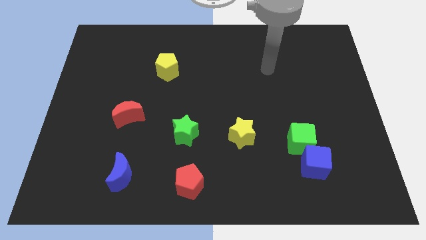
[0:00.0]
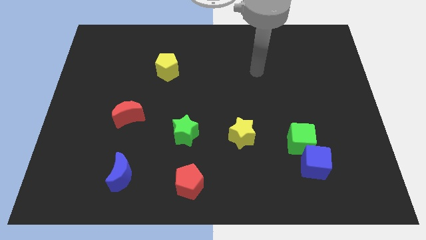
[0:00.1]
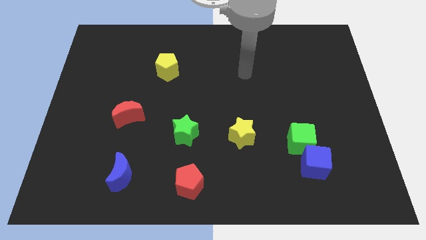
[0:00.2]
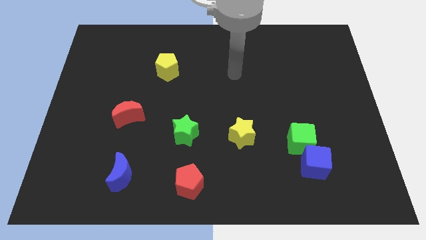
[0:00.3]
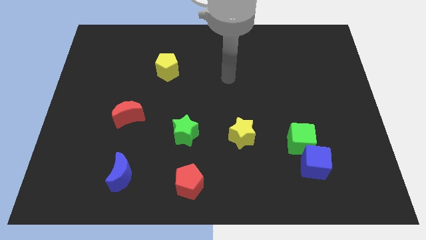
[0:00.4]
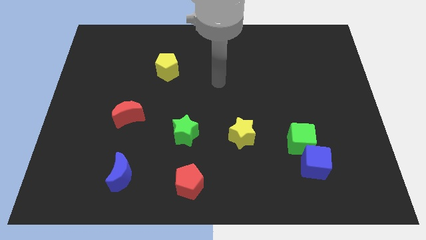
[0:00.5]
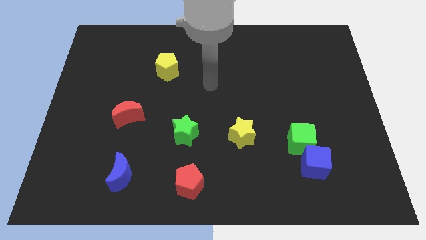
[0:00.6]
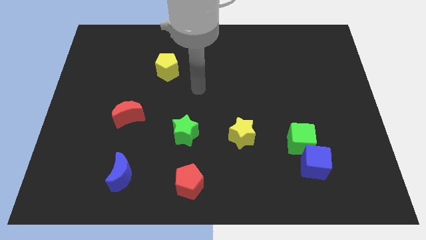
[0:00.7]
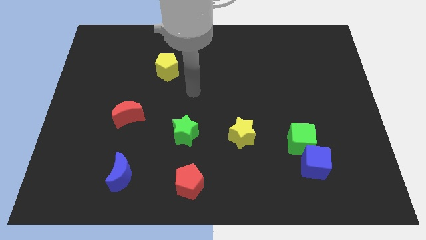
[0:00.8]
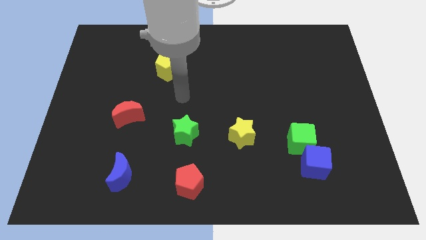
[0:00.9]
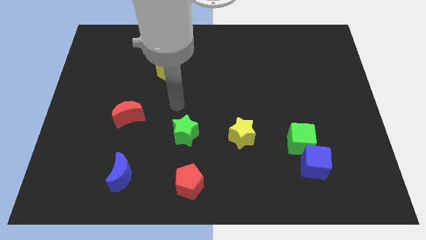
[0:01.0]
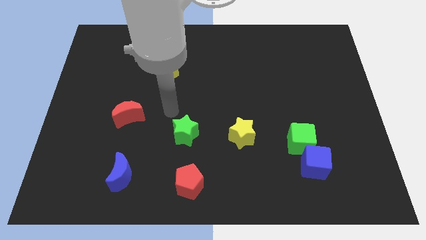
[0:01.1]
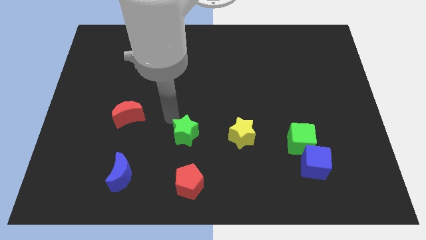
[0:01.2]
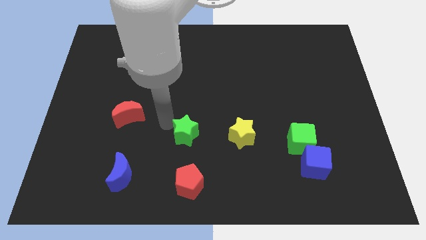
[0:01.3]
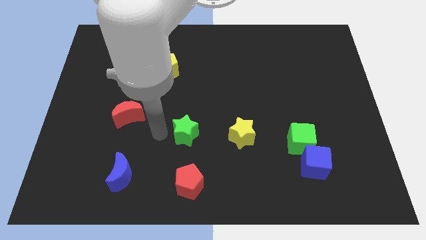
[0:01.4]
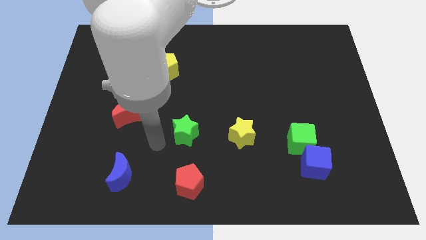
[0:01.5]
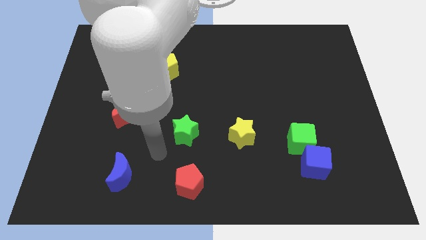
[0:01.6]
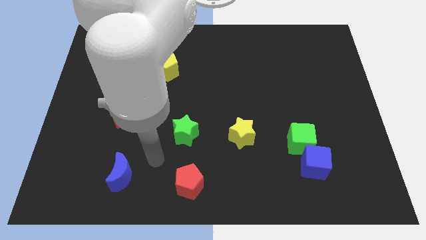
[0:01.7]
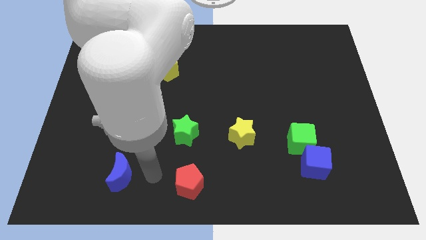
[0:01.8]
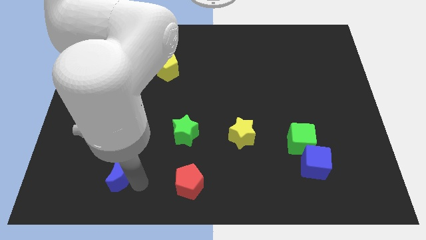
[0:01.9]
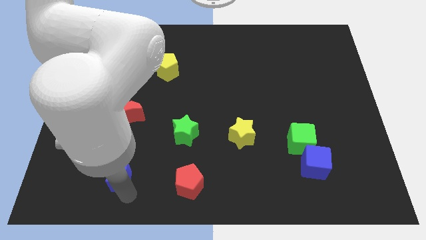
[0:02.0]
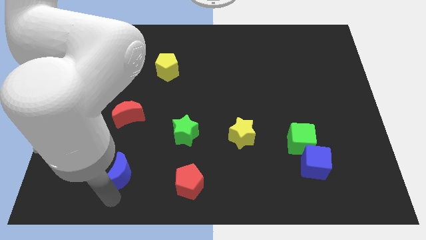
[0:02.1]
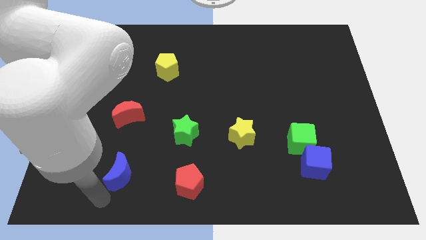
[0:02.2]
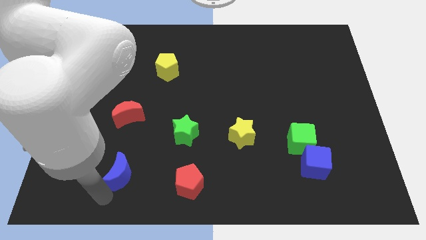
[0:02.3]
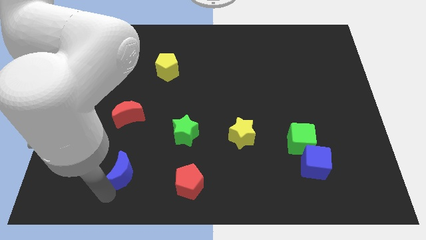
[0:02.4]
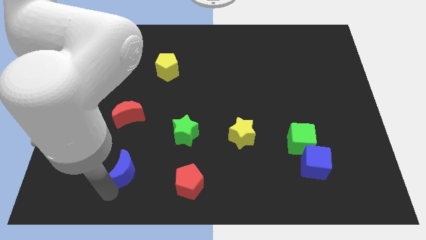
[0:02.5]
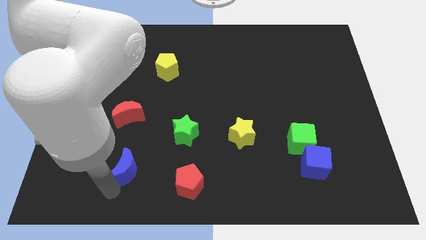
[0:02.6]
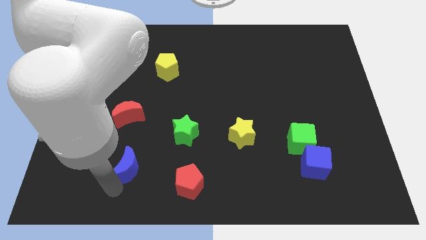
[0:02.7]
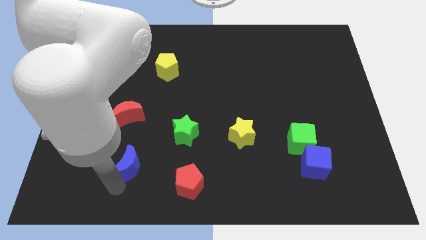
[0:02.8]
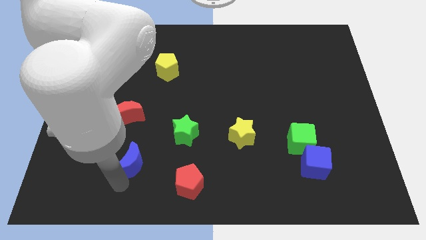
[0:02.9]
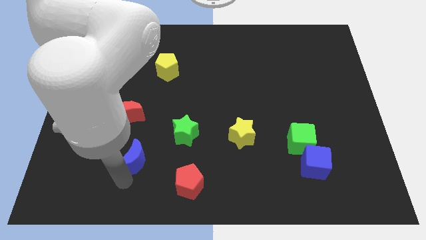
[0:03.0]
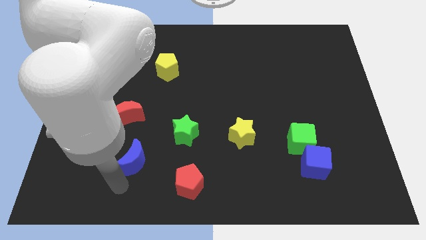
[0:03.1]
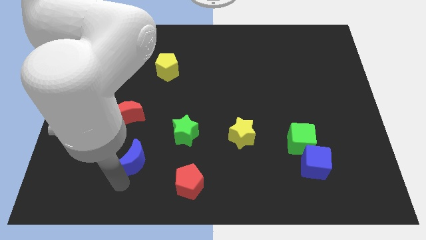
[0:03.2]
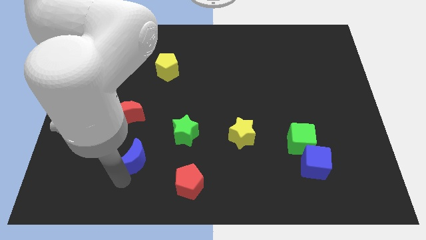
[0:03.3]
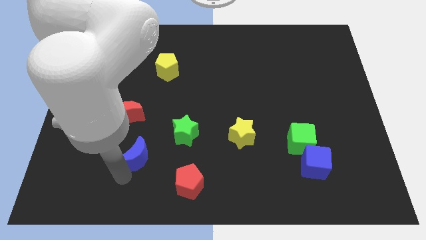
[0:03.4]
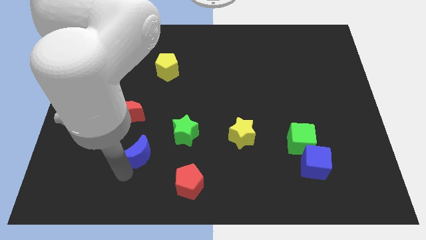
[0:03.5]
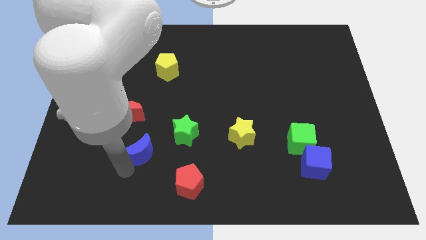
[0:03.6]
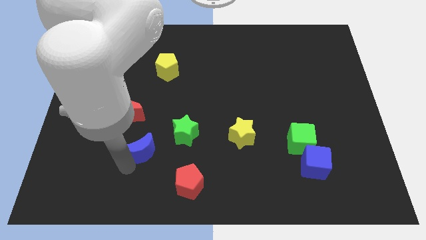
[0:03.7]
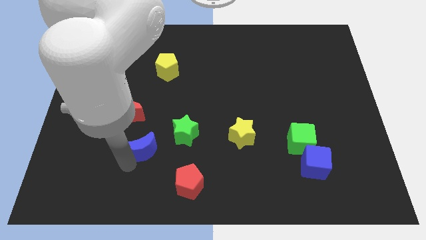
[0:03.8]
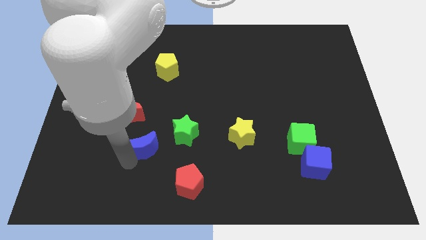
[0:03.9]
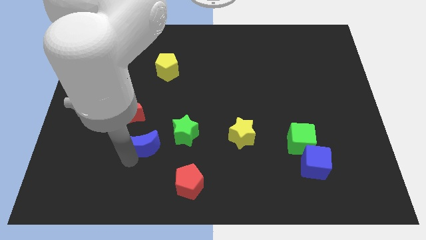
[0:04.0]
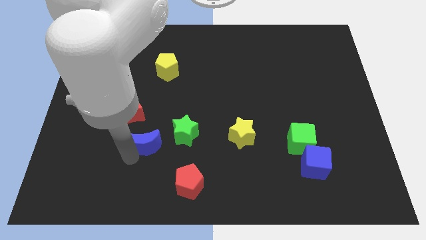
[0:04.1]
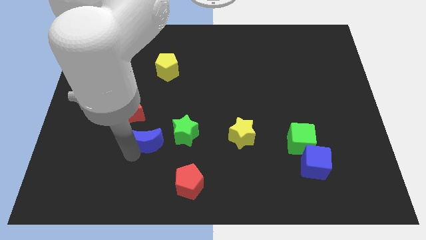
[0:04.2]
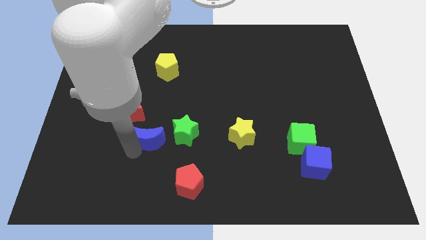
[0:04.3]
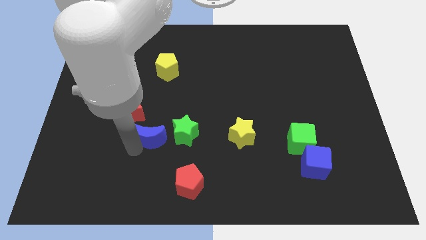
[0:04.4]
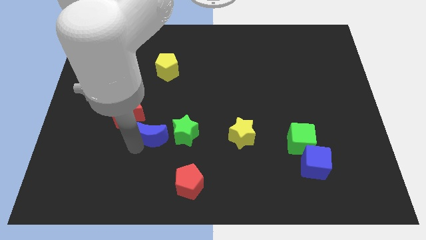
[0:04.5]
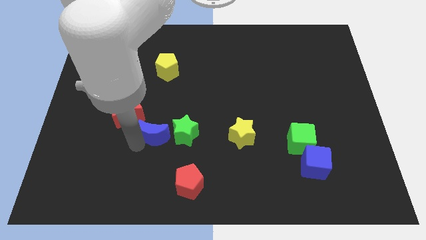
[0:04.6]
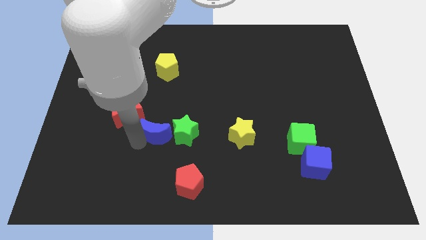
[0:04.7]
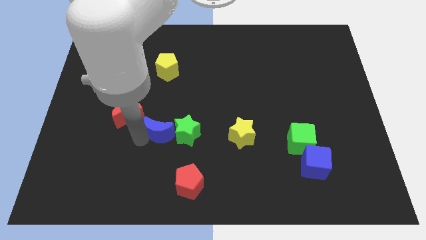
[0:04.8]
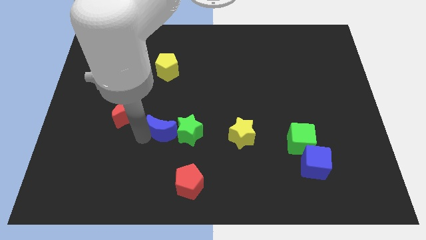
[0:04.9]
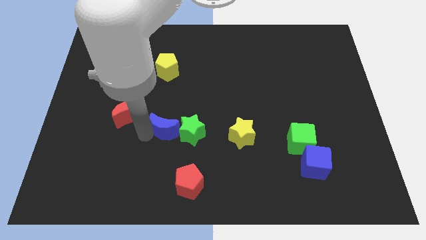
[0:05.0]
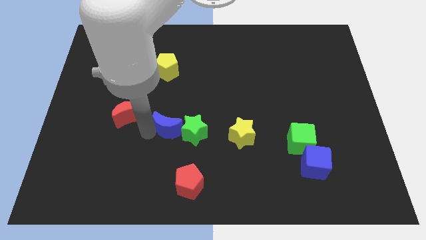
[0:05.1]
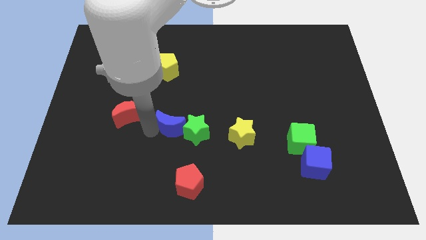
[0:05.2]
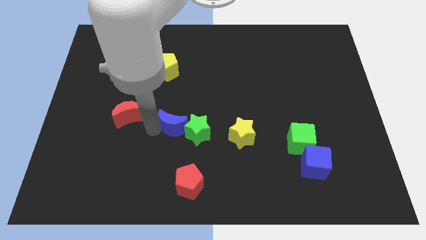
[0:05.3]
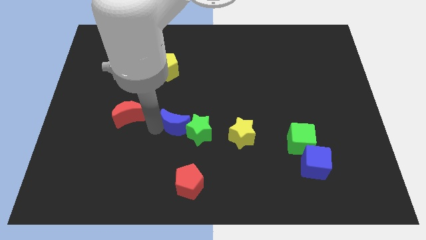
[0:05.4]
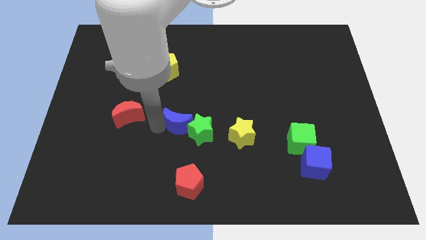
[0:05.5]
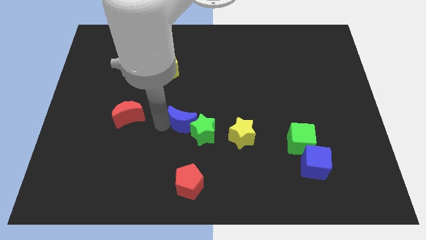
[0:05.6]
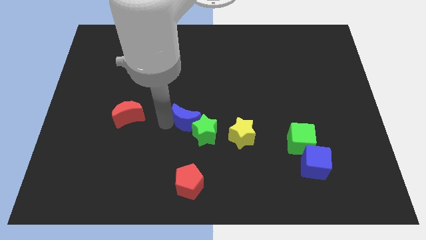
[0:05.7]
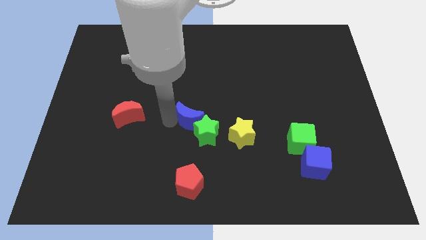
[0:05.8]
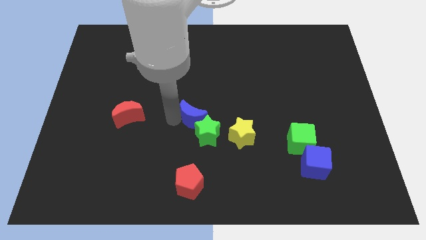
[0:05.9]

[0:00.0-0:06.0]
move the blue moon diagonally upwards and right

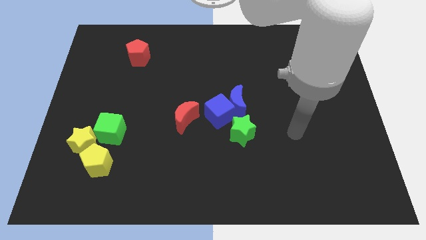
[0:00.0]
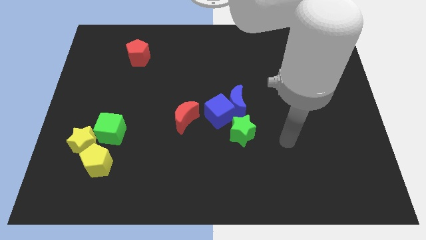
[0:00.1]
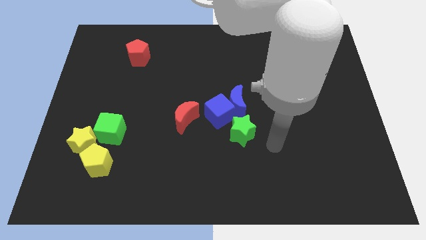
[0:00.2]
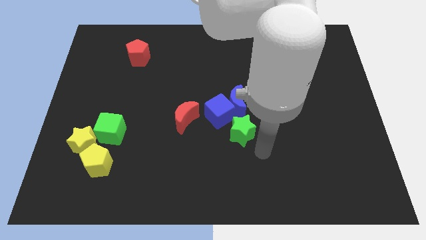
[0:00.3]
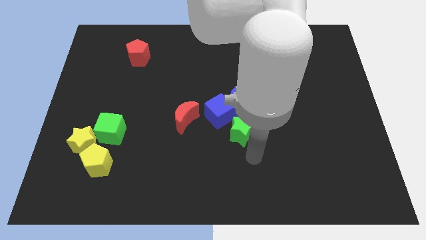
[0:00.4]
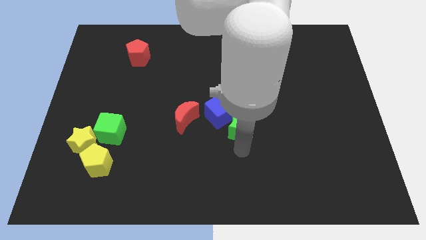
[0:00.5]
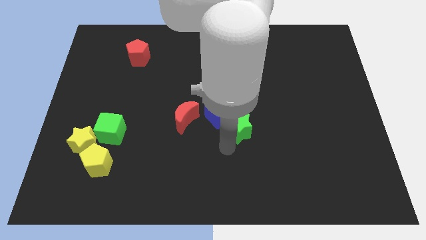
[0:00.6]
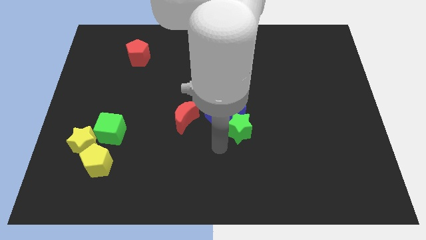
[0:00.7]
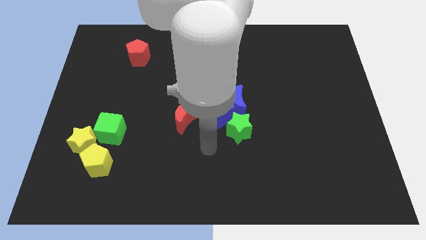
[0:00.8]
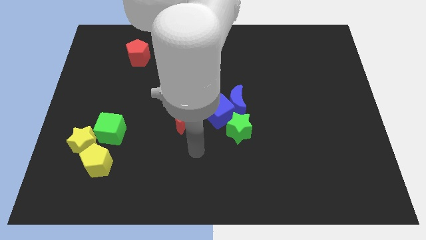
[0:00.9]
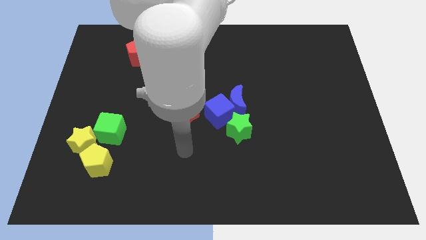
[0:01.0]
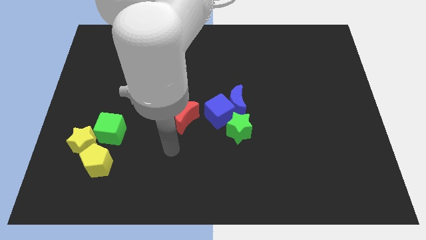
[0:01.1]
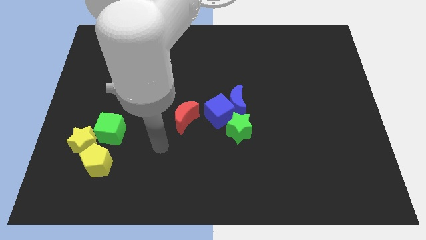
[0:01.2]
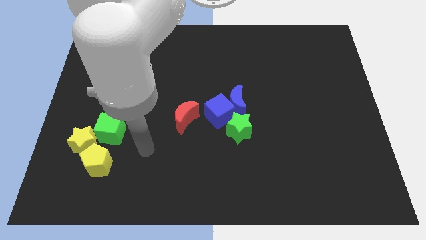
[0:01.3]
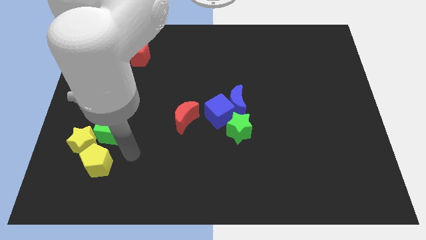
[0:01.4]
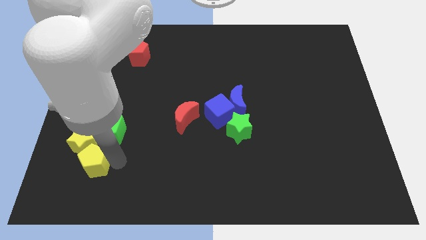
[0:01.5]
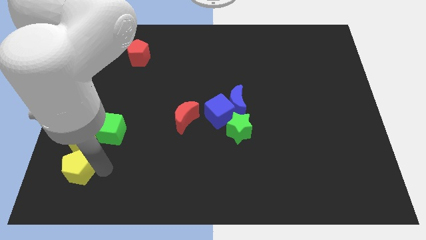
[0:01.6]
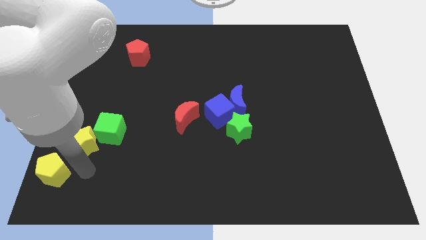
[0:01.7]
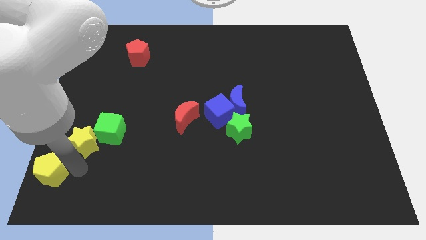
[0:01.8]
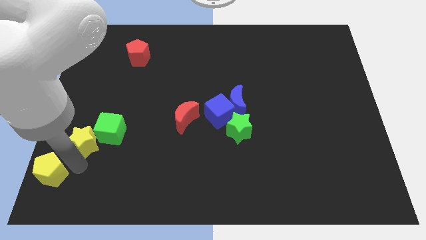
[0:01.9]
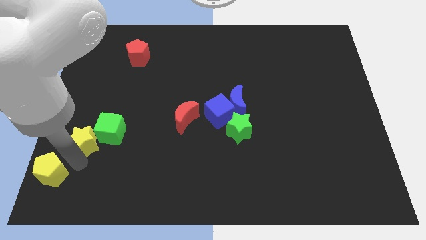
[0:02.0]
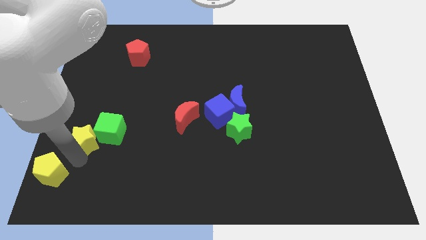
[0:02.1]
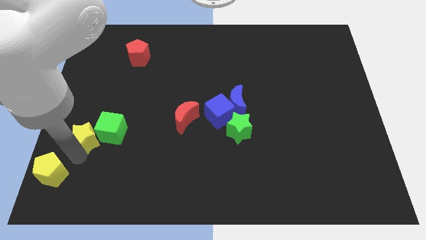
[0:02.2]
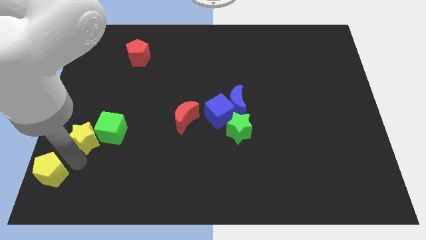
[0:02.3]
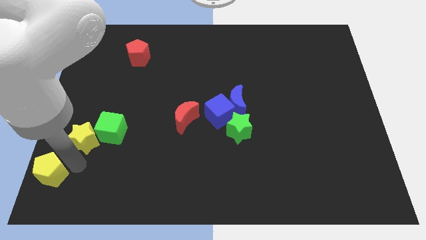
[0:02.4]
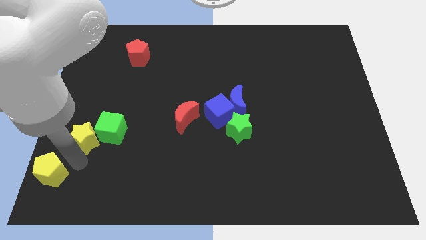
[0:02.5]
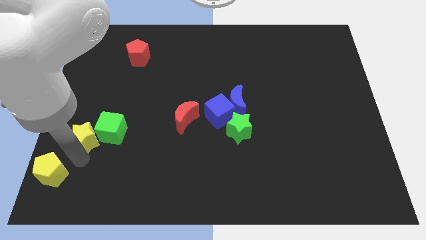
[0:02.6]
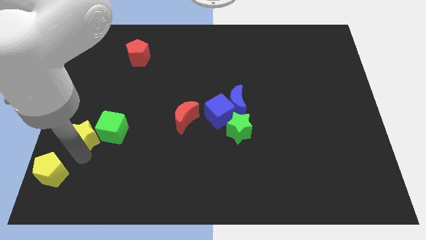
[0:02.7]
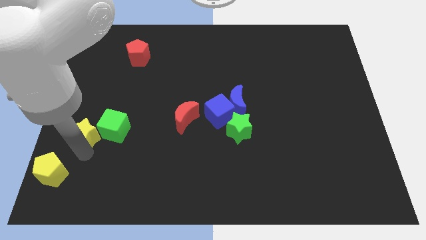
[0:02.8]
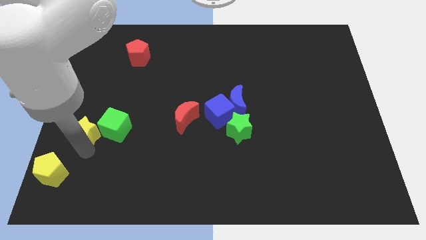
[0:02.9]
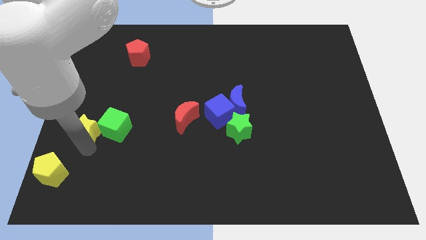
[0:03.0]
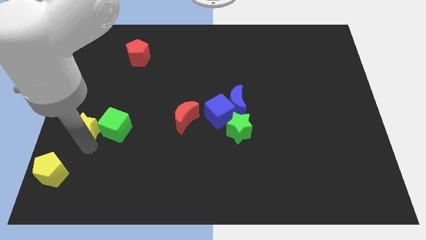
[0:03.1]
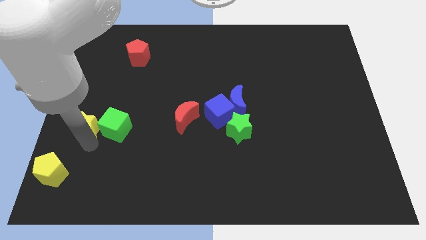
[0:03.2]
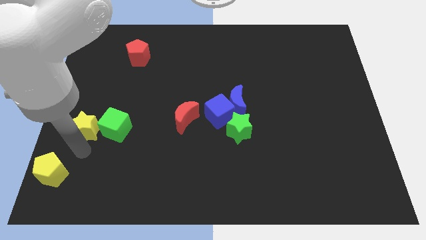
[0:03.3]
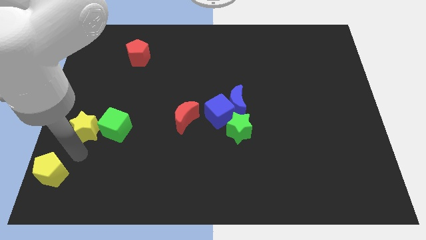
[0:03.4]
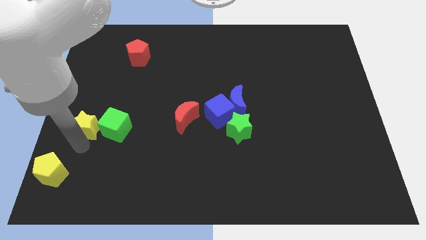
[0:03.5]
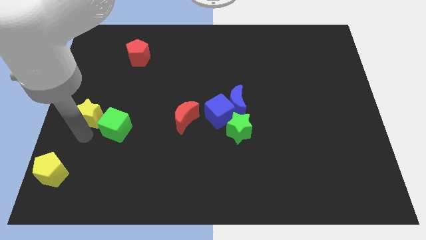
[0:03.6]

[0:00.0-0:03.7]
move the yellow star up a little bit
